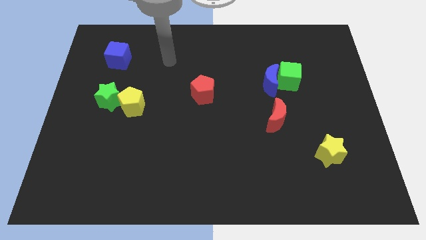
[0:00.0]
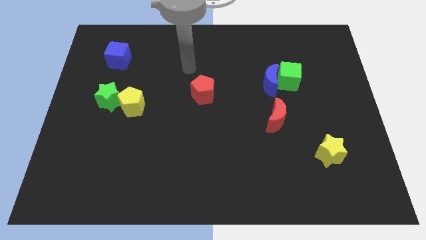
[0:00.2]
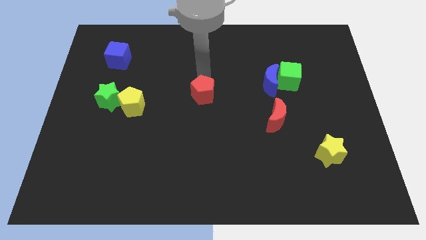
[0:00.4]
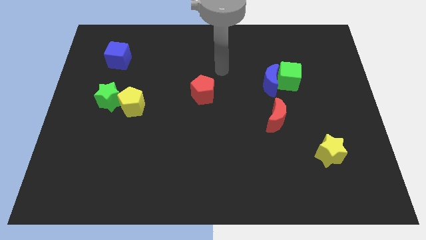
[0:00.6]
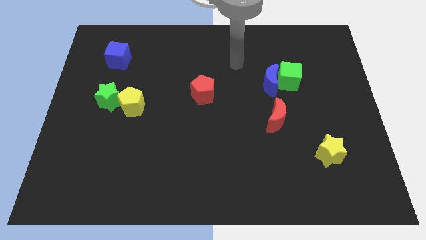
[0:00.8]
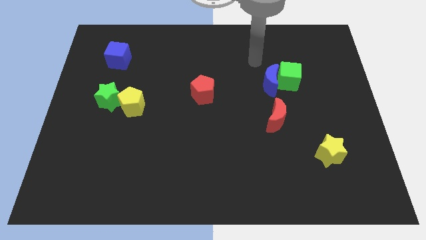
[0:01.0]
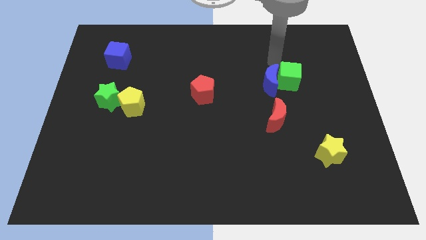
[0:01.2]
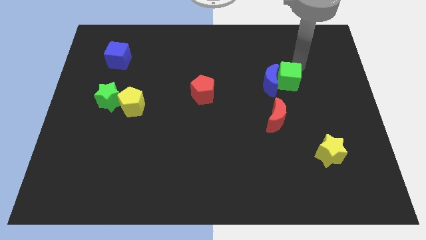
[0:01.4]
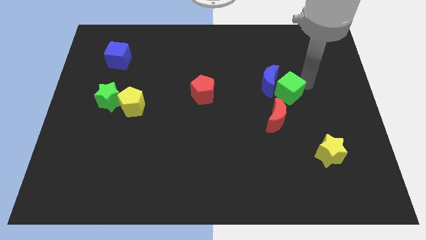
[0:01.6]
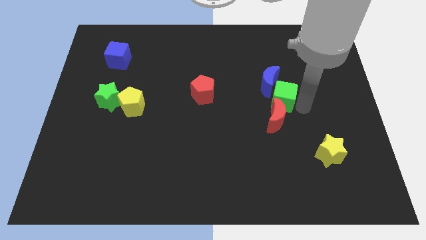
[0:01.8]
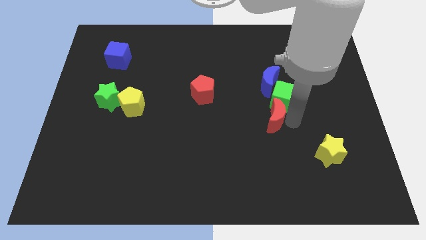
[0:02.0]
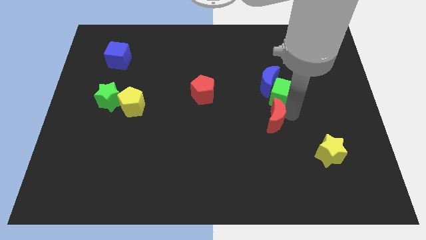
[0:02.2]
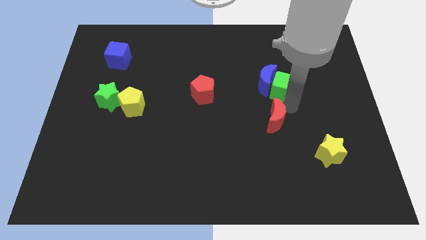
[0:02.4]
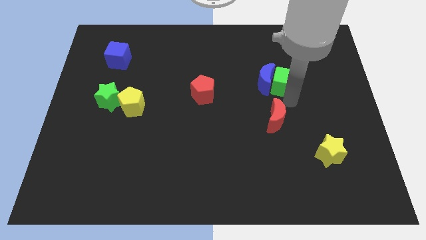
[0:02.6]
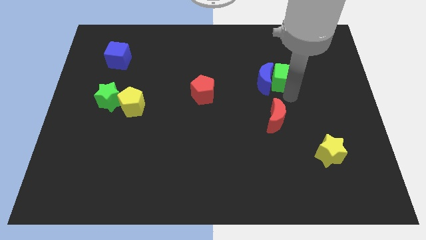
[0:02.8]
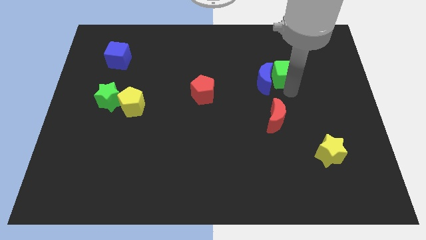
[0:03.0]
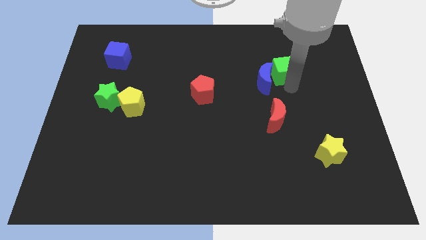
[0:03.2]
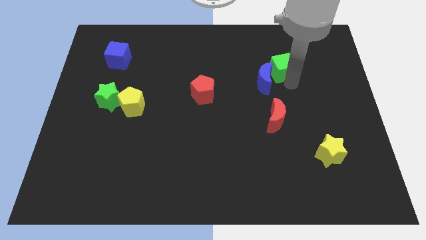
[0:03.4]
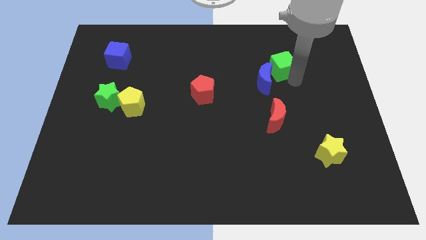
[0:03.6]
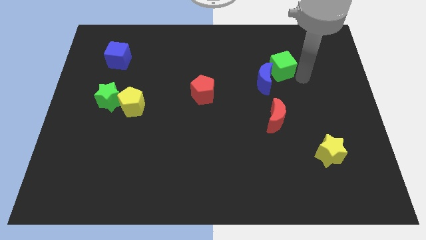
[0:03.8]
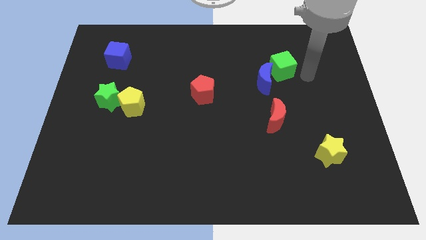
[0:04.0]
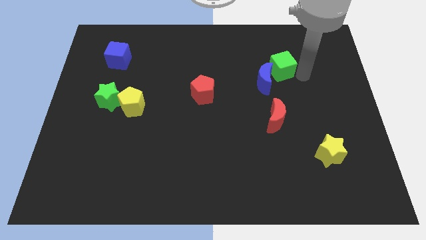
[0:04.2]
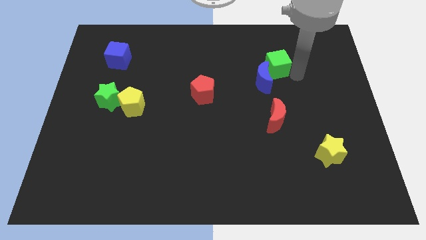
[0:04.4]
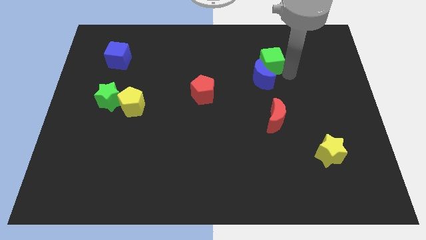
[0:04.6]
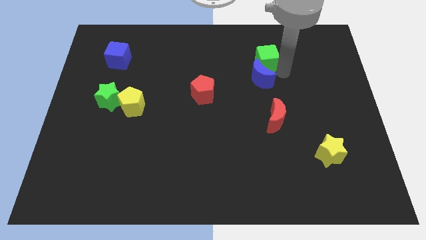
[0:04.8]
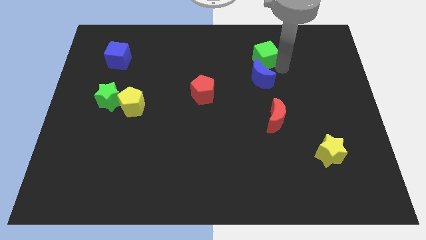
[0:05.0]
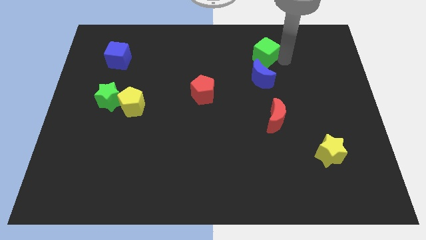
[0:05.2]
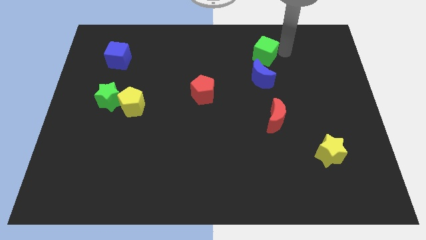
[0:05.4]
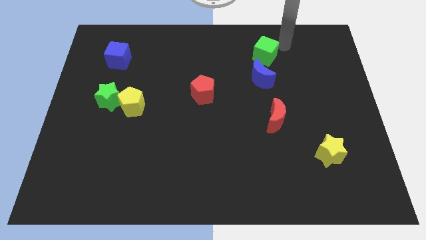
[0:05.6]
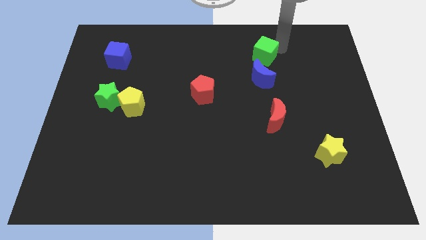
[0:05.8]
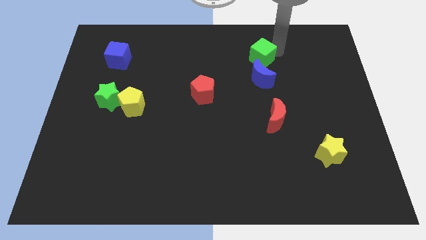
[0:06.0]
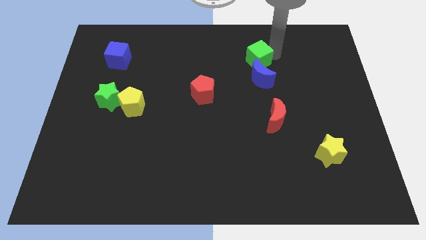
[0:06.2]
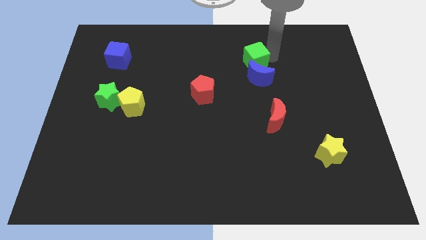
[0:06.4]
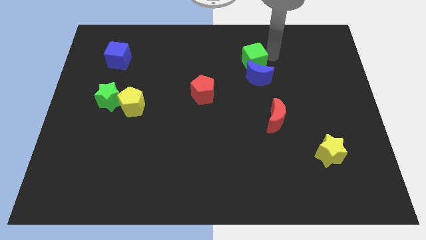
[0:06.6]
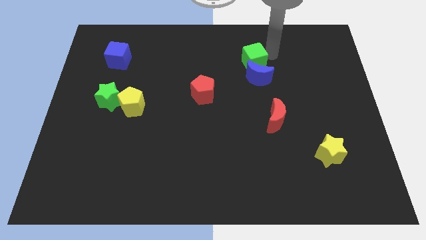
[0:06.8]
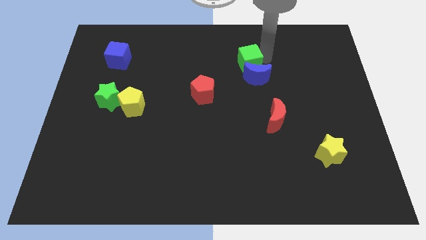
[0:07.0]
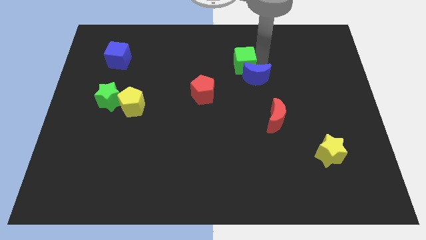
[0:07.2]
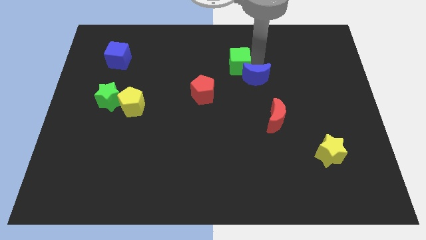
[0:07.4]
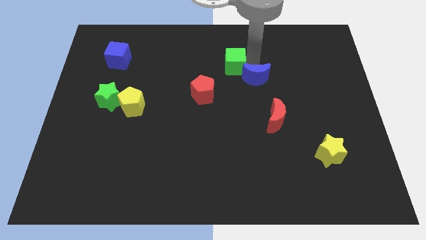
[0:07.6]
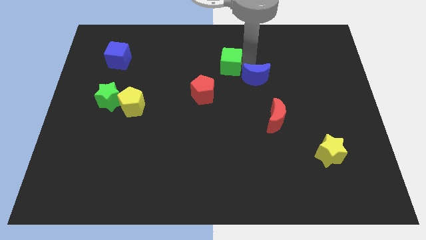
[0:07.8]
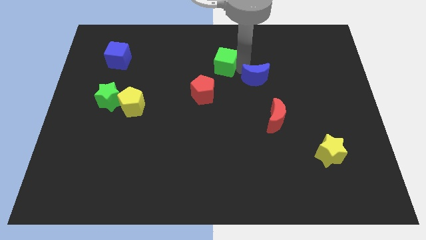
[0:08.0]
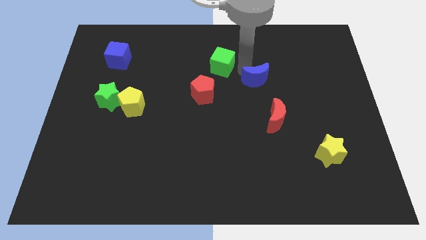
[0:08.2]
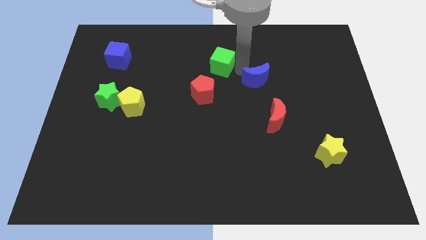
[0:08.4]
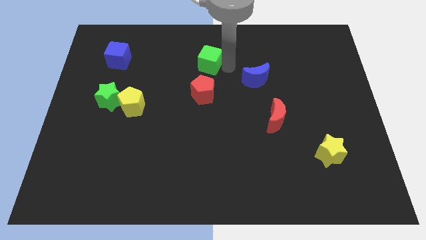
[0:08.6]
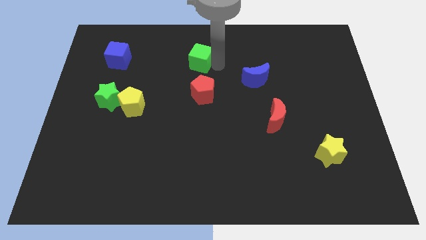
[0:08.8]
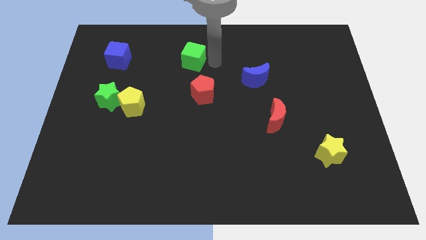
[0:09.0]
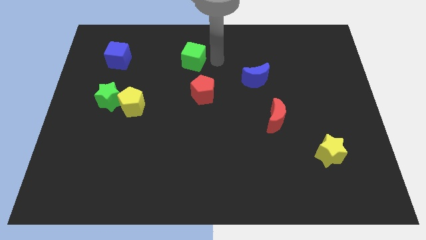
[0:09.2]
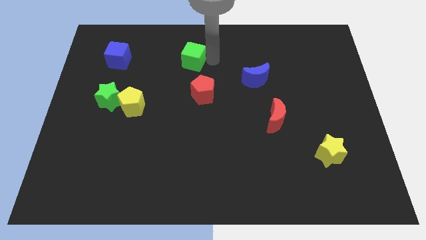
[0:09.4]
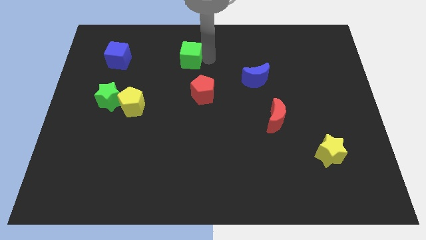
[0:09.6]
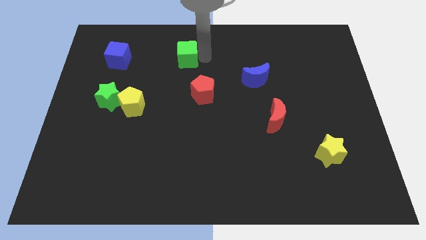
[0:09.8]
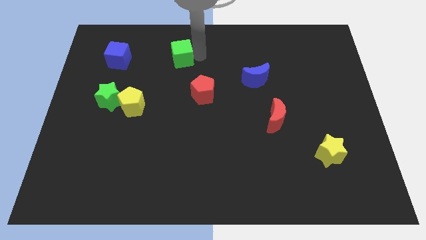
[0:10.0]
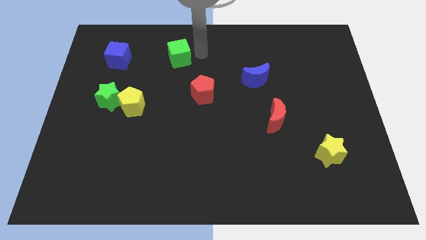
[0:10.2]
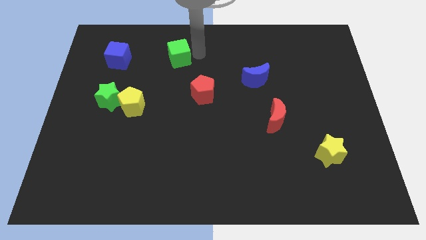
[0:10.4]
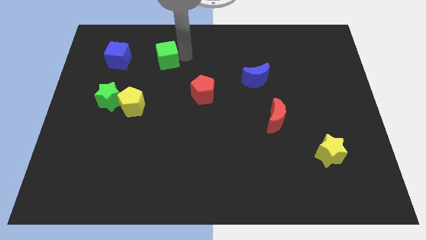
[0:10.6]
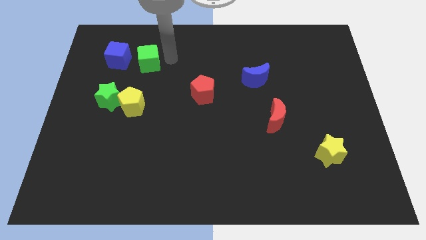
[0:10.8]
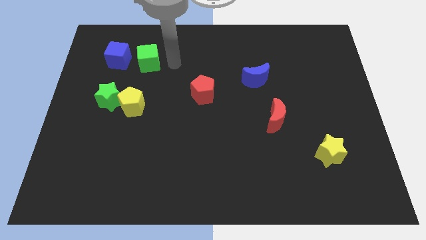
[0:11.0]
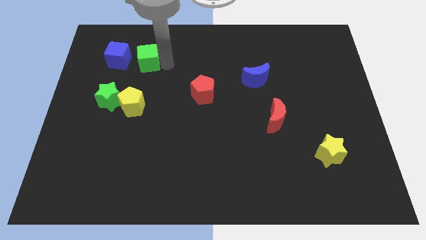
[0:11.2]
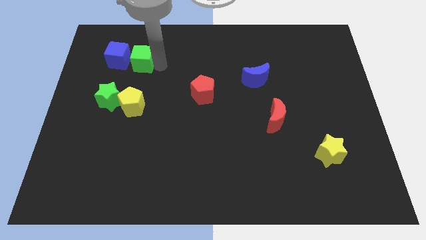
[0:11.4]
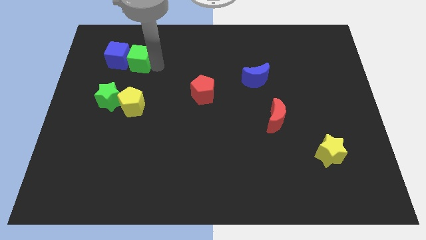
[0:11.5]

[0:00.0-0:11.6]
push the green cube towards the blue cube

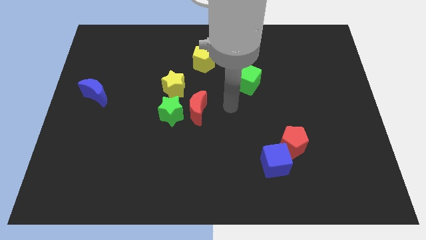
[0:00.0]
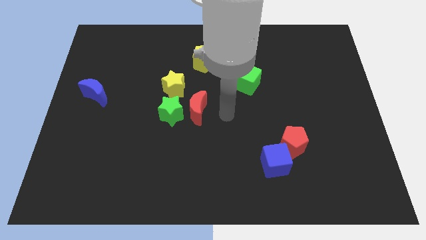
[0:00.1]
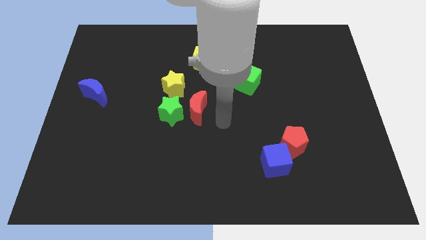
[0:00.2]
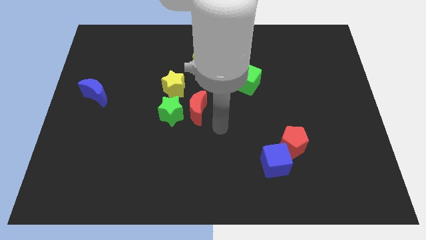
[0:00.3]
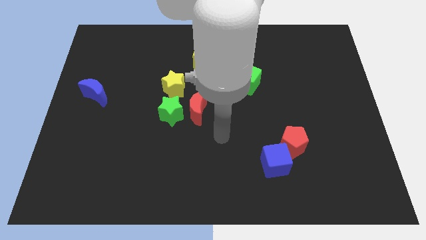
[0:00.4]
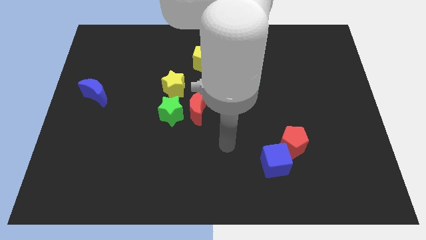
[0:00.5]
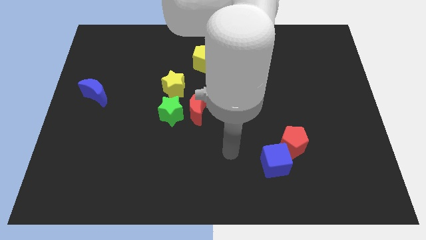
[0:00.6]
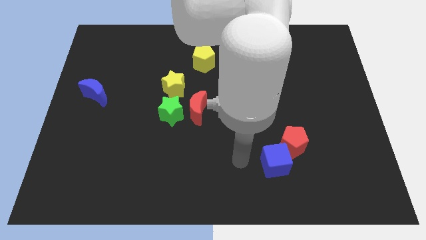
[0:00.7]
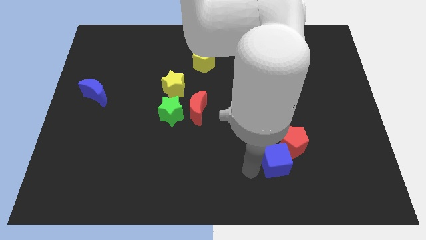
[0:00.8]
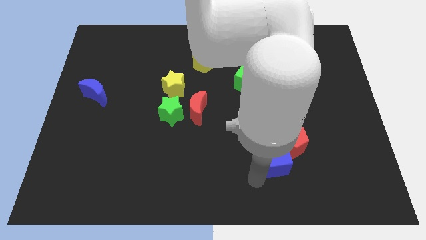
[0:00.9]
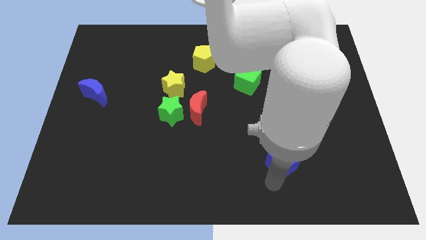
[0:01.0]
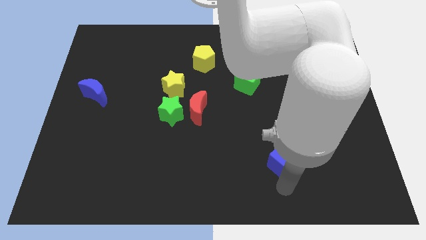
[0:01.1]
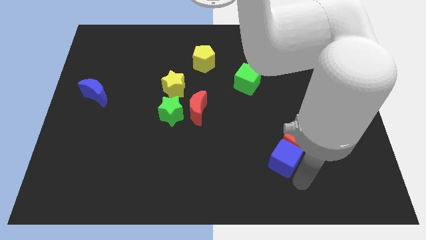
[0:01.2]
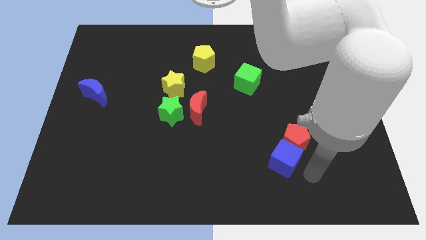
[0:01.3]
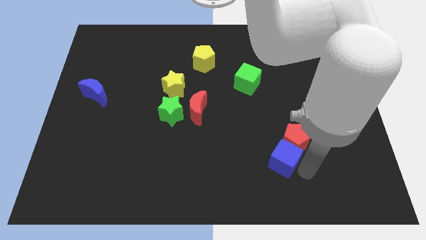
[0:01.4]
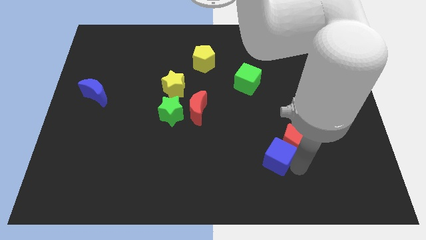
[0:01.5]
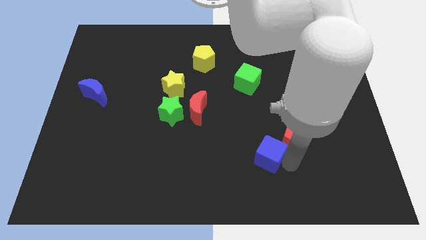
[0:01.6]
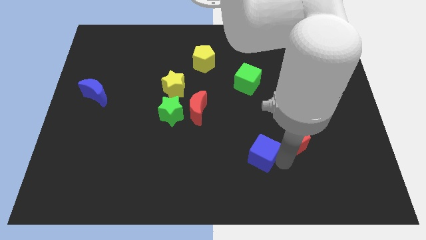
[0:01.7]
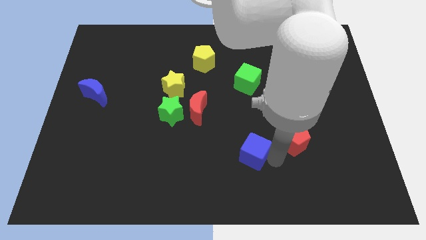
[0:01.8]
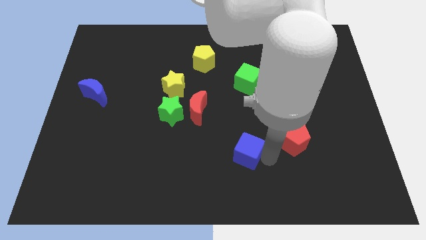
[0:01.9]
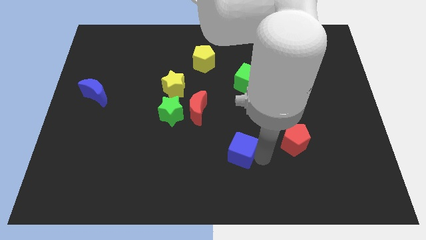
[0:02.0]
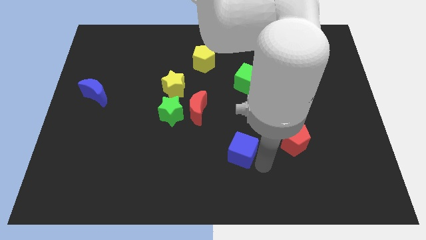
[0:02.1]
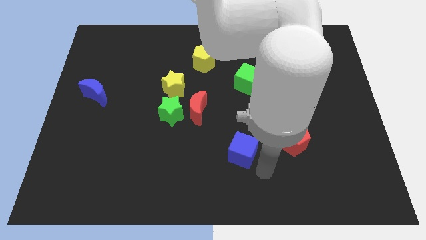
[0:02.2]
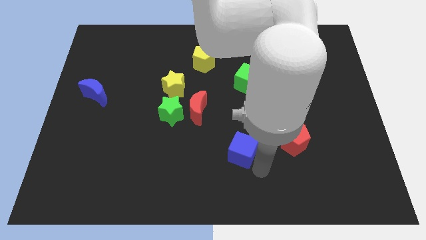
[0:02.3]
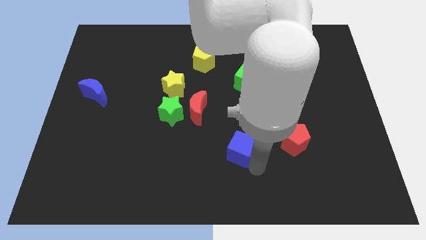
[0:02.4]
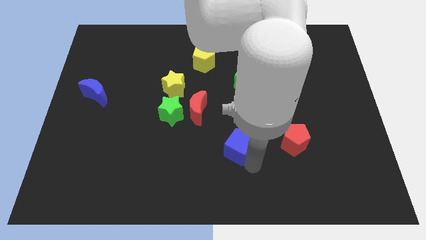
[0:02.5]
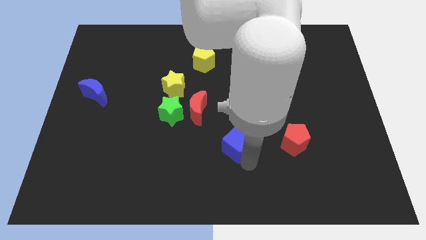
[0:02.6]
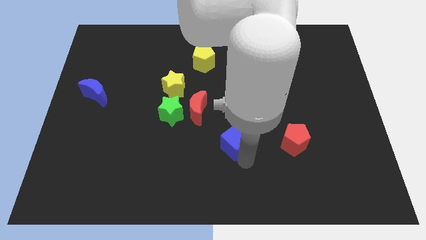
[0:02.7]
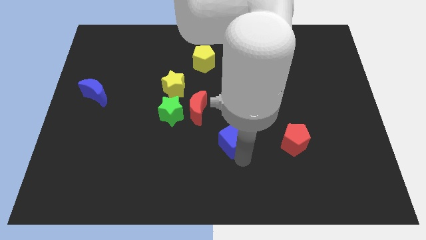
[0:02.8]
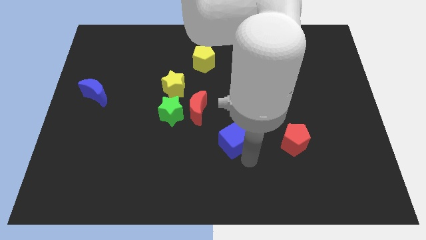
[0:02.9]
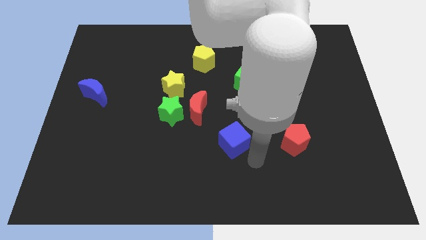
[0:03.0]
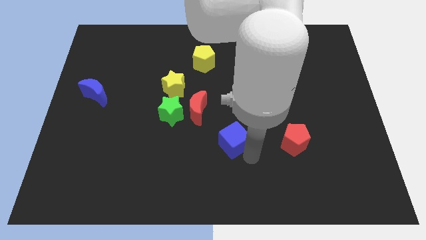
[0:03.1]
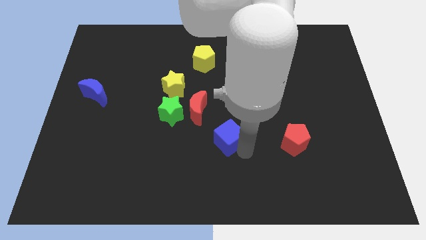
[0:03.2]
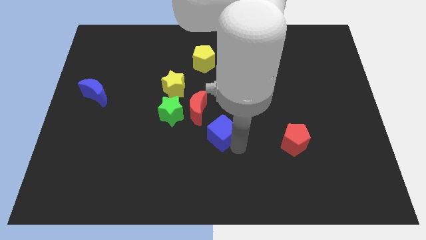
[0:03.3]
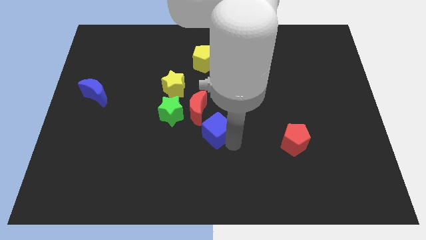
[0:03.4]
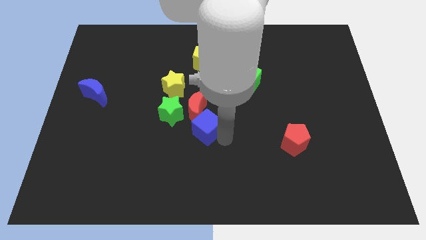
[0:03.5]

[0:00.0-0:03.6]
put the blue cube to the red moon
